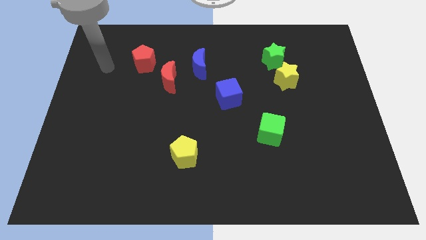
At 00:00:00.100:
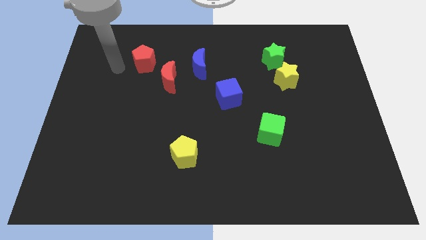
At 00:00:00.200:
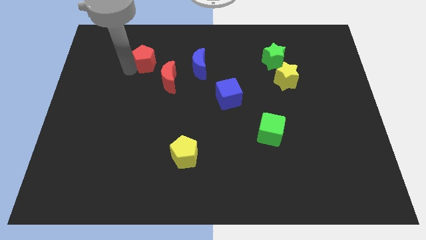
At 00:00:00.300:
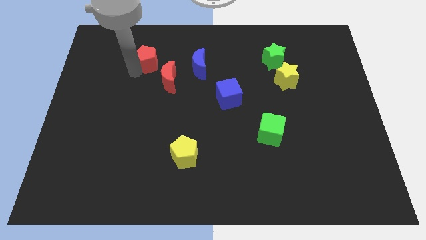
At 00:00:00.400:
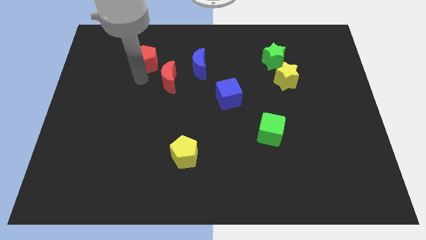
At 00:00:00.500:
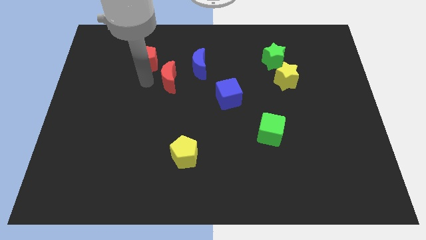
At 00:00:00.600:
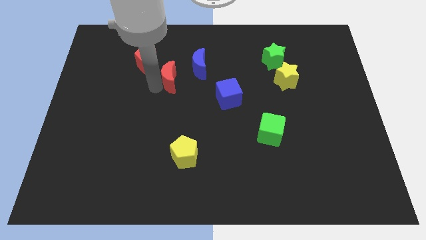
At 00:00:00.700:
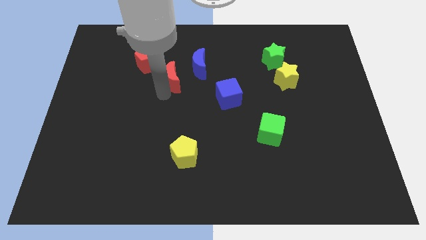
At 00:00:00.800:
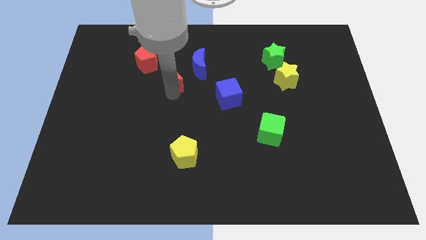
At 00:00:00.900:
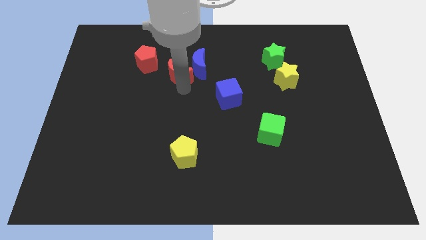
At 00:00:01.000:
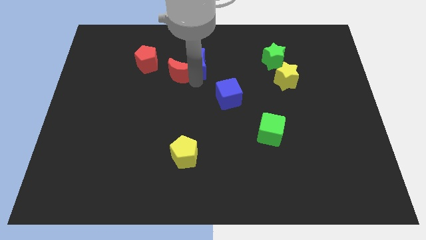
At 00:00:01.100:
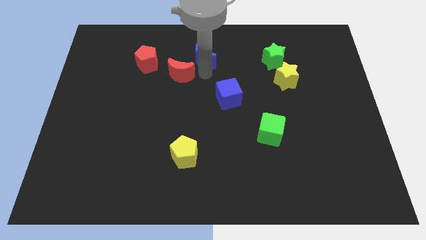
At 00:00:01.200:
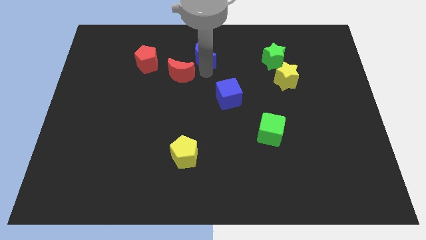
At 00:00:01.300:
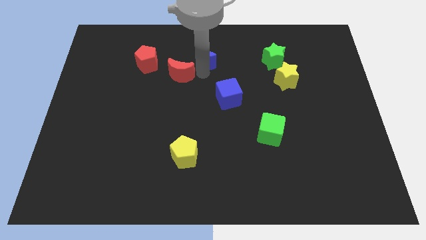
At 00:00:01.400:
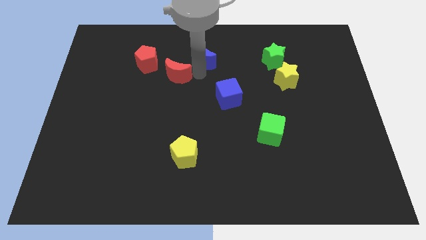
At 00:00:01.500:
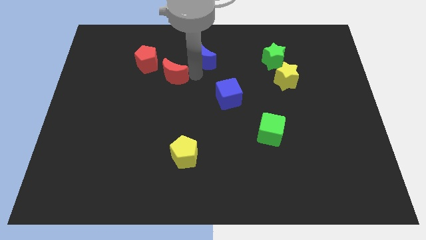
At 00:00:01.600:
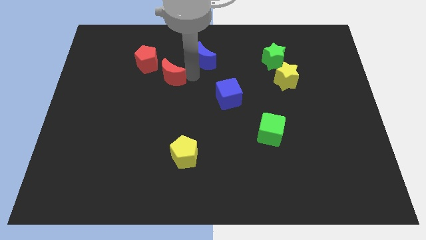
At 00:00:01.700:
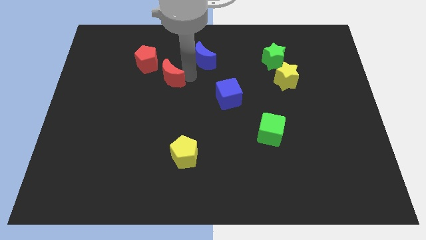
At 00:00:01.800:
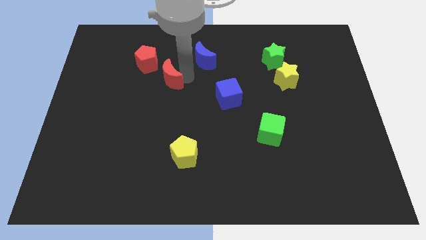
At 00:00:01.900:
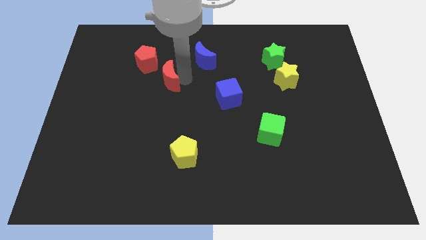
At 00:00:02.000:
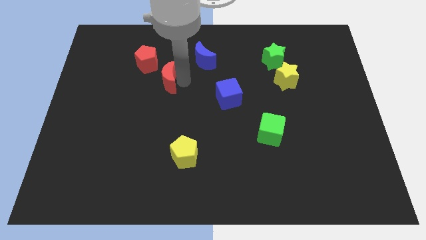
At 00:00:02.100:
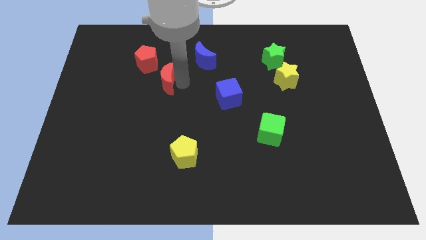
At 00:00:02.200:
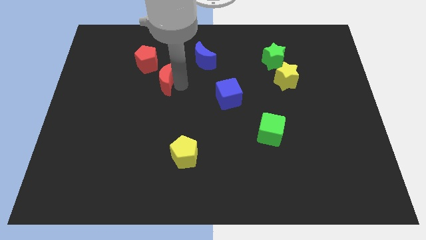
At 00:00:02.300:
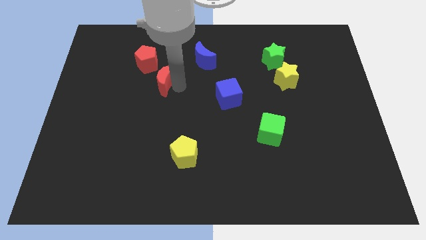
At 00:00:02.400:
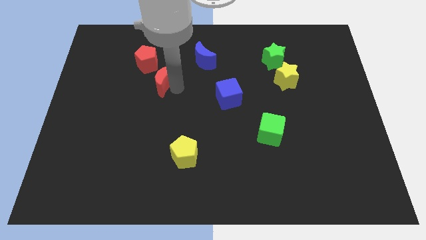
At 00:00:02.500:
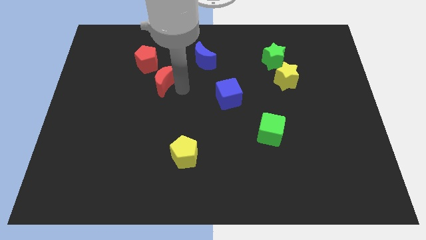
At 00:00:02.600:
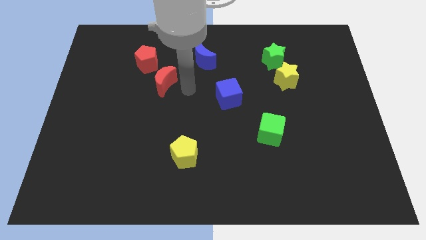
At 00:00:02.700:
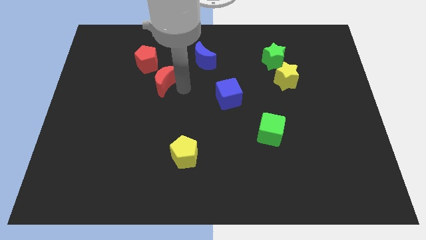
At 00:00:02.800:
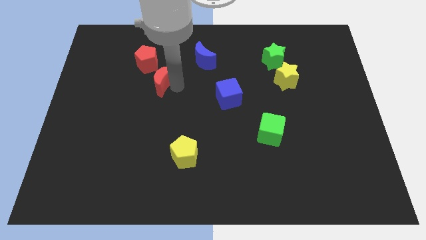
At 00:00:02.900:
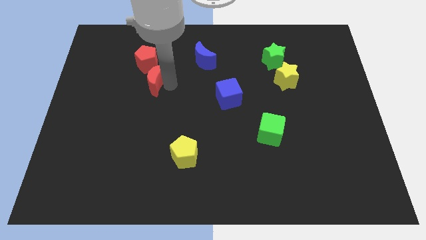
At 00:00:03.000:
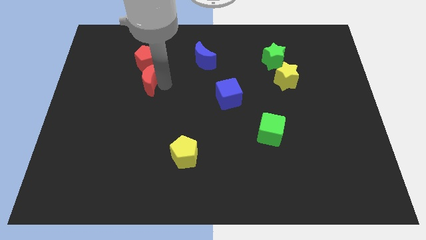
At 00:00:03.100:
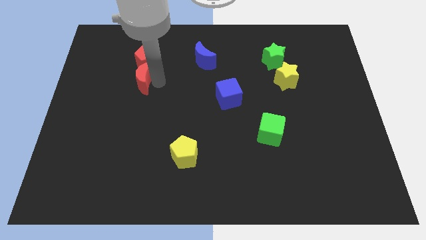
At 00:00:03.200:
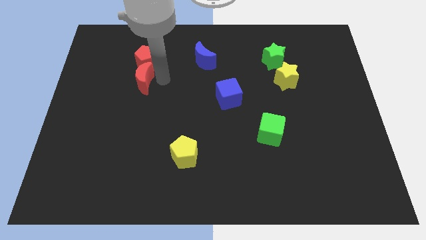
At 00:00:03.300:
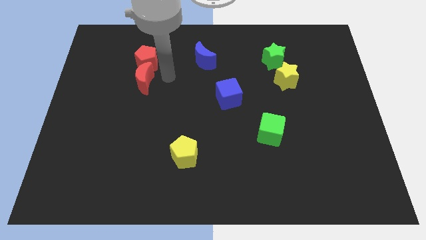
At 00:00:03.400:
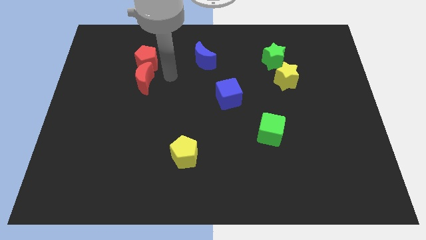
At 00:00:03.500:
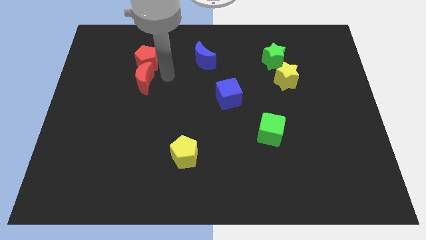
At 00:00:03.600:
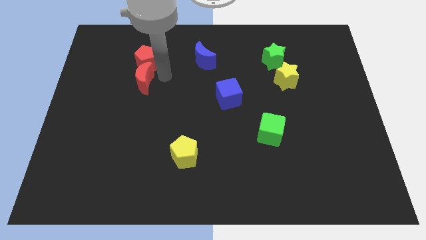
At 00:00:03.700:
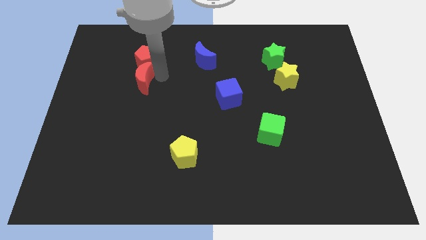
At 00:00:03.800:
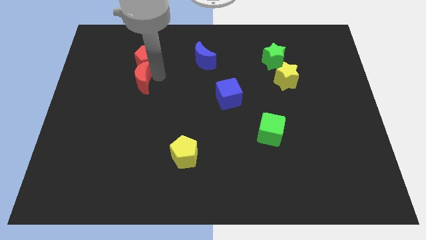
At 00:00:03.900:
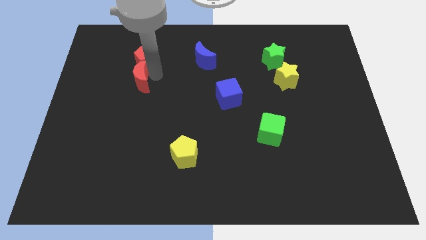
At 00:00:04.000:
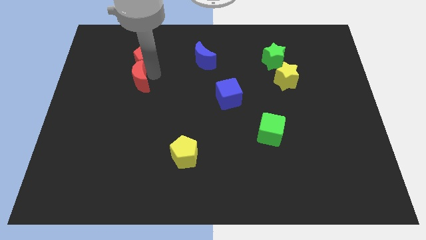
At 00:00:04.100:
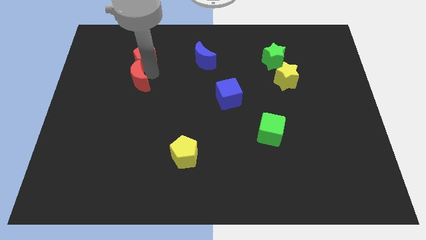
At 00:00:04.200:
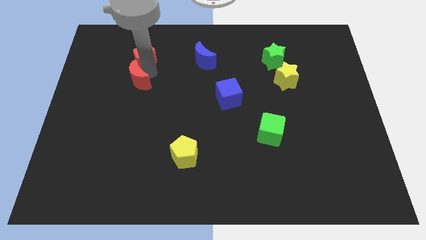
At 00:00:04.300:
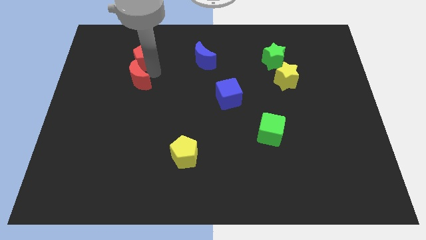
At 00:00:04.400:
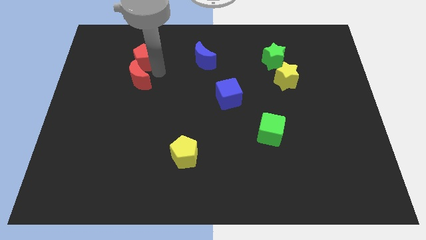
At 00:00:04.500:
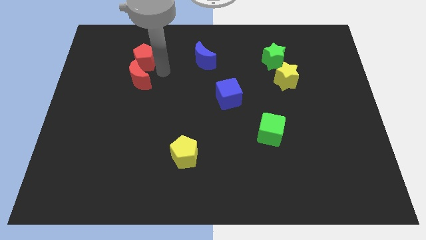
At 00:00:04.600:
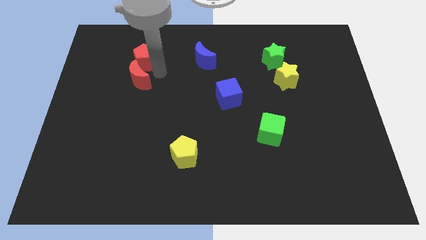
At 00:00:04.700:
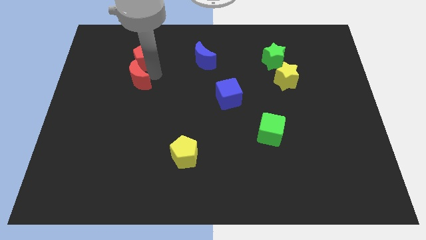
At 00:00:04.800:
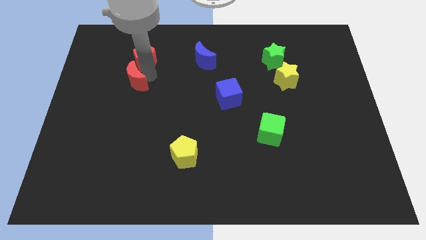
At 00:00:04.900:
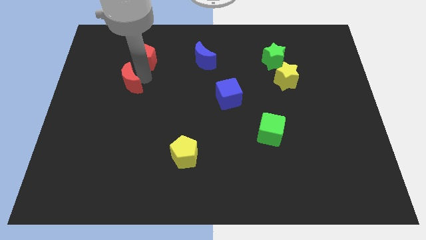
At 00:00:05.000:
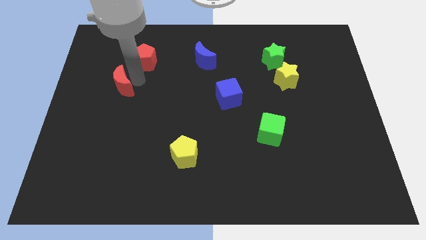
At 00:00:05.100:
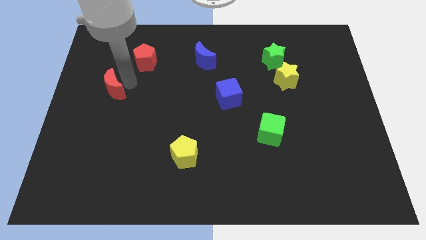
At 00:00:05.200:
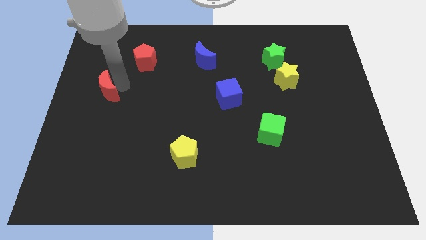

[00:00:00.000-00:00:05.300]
put the red moon to the center left

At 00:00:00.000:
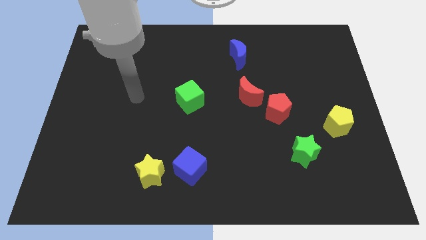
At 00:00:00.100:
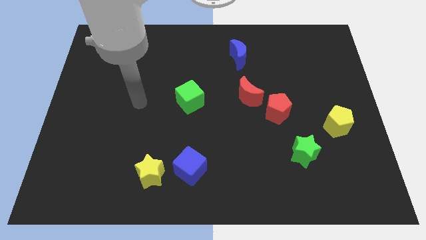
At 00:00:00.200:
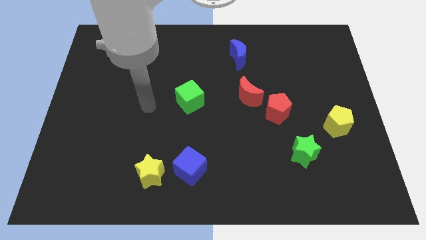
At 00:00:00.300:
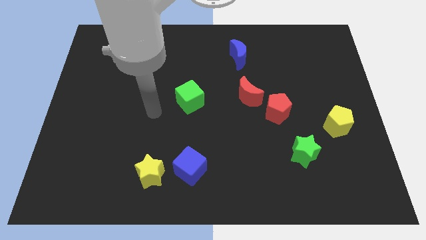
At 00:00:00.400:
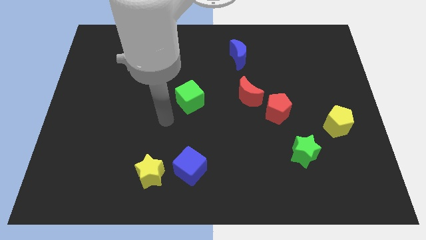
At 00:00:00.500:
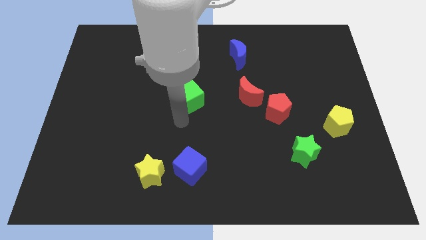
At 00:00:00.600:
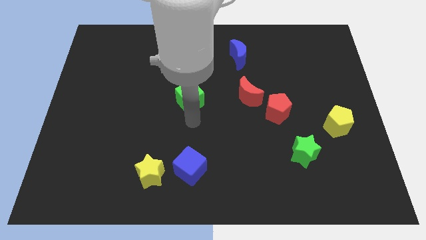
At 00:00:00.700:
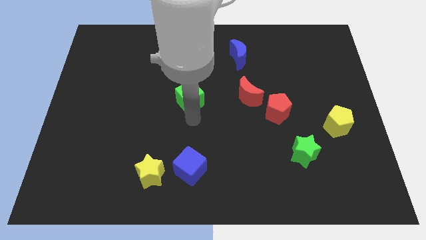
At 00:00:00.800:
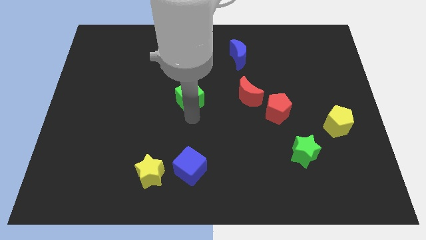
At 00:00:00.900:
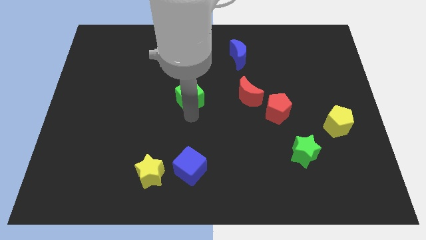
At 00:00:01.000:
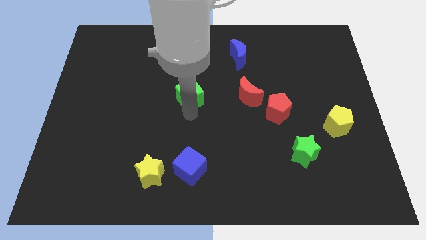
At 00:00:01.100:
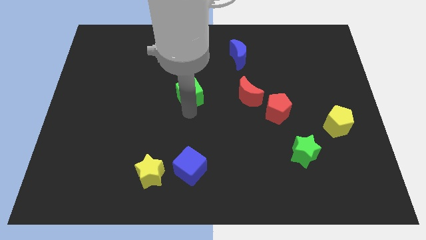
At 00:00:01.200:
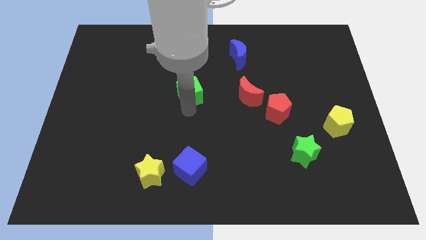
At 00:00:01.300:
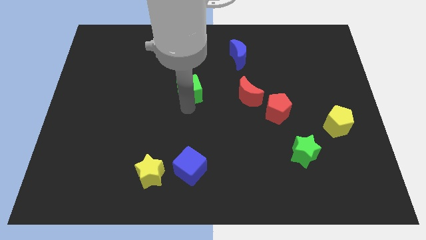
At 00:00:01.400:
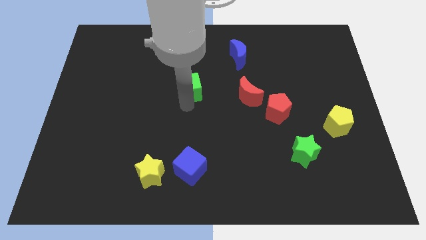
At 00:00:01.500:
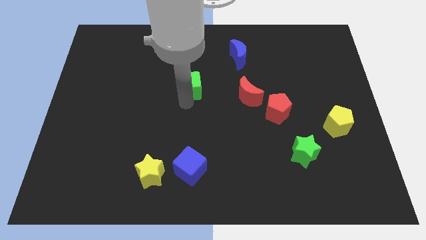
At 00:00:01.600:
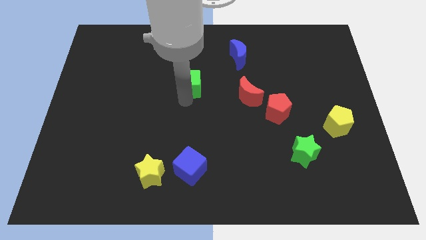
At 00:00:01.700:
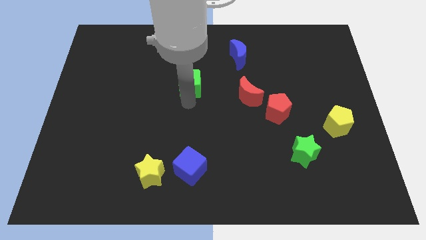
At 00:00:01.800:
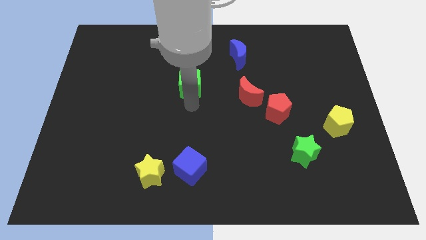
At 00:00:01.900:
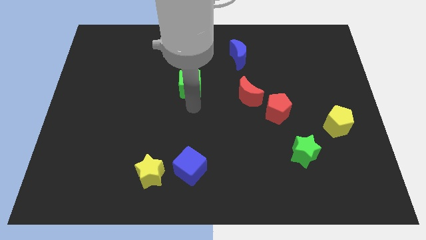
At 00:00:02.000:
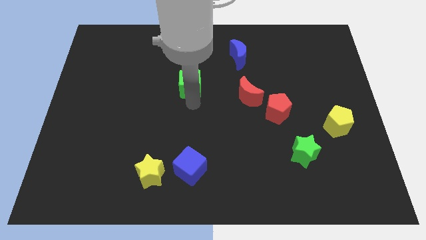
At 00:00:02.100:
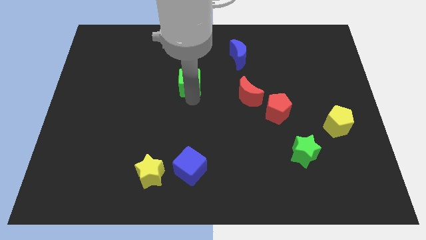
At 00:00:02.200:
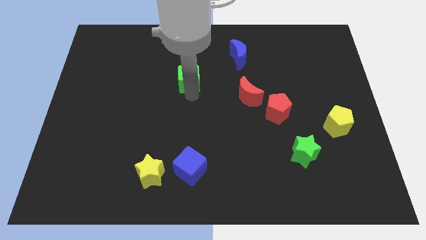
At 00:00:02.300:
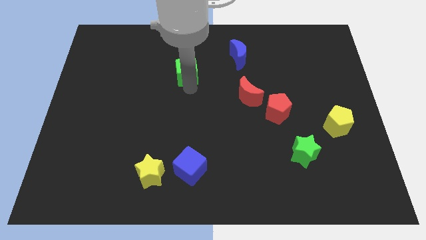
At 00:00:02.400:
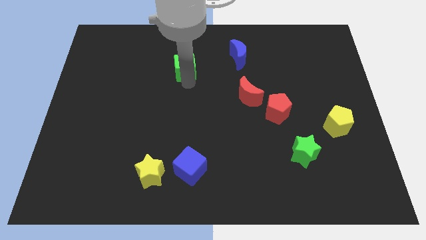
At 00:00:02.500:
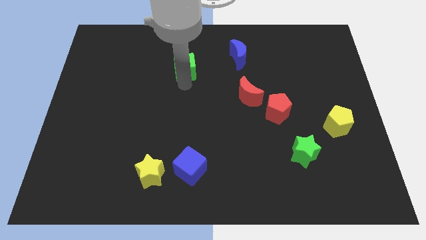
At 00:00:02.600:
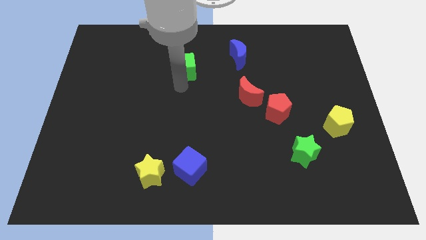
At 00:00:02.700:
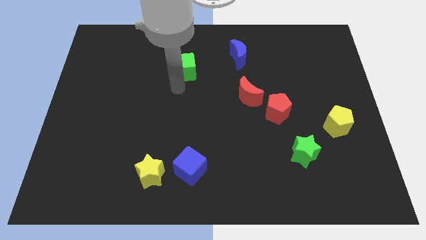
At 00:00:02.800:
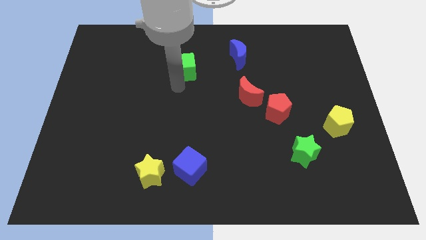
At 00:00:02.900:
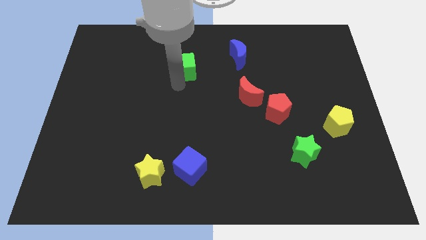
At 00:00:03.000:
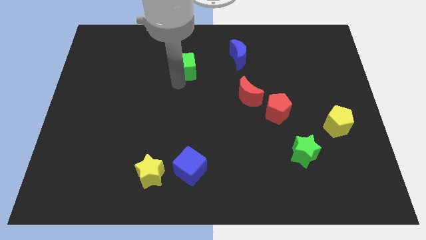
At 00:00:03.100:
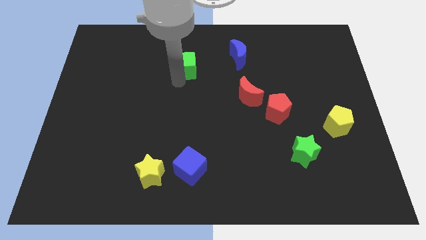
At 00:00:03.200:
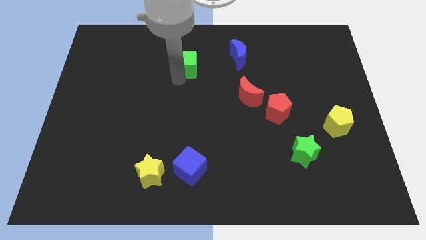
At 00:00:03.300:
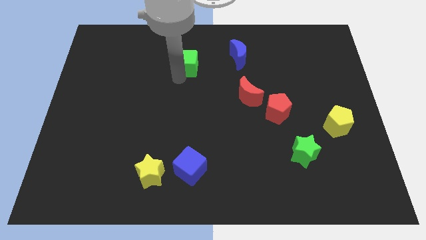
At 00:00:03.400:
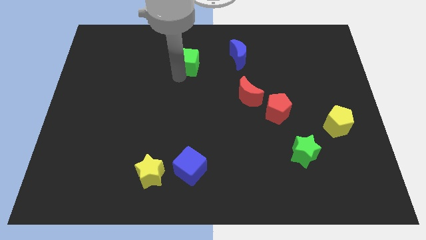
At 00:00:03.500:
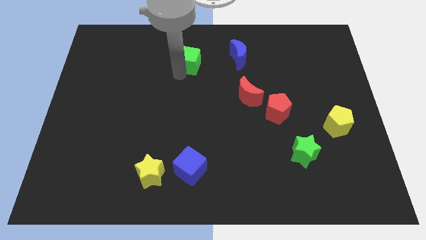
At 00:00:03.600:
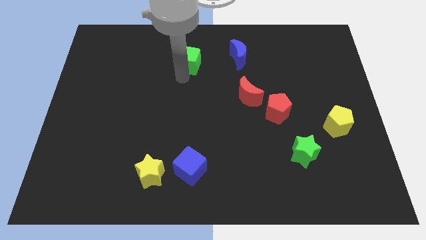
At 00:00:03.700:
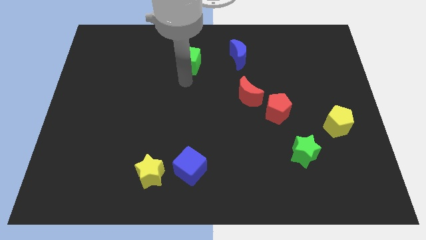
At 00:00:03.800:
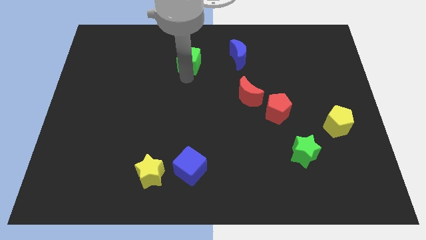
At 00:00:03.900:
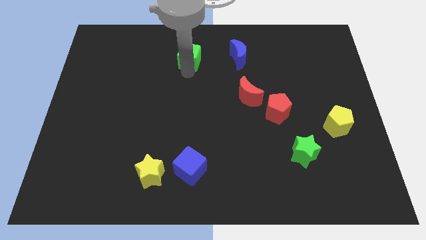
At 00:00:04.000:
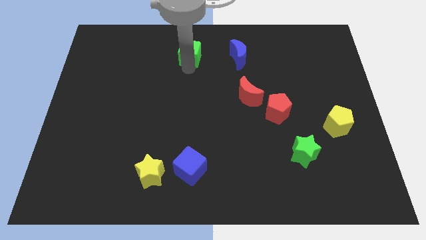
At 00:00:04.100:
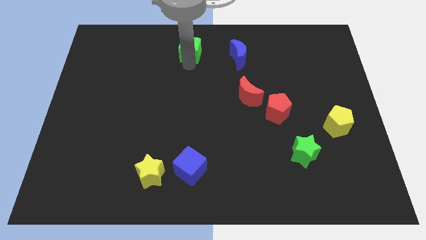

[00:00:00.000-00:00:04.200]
move the green cube to the top side
